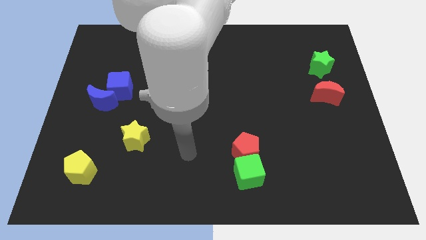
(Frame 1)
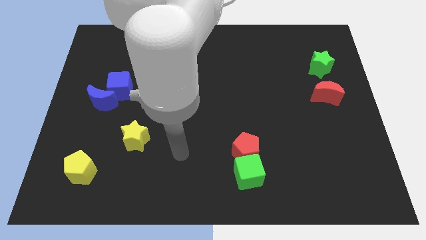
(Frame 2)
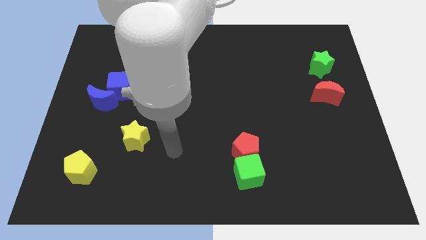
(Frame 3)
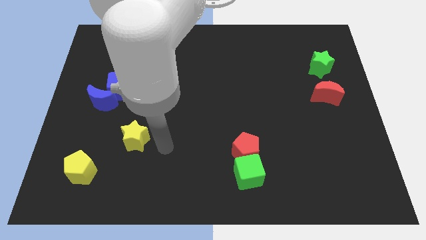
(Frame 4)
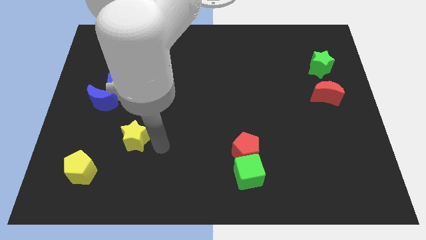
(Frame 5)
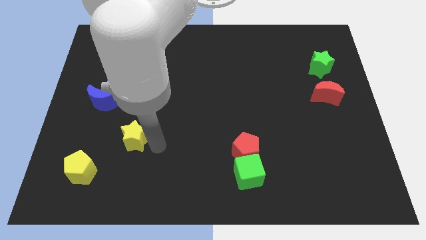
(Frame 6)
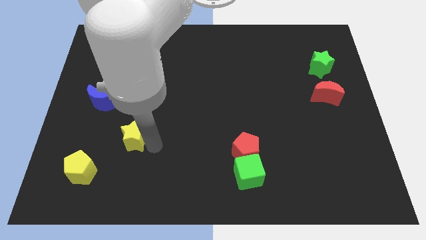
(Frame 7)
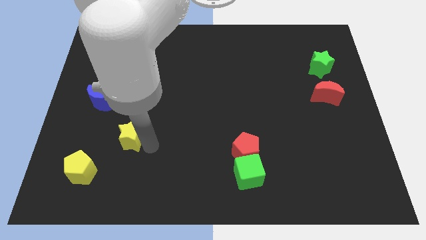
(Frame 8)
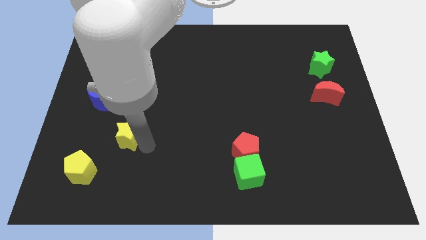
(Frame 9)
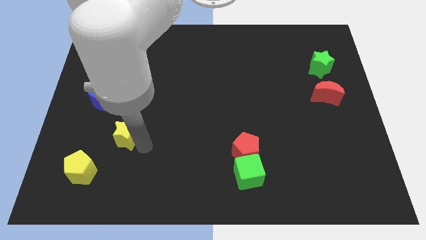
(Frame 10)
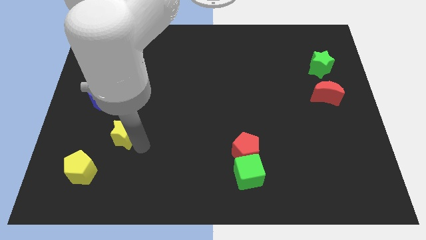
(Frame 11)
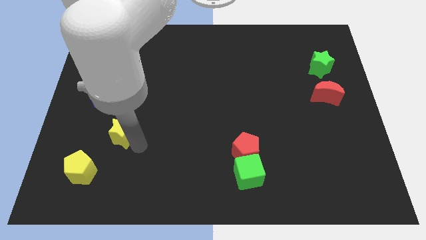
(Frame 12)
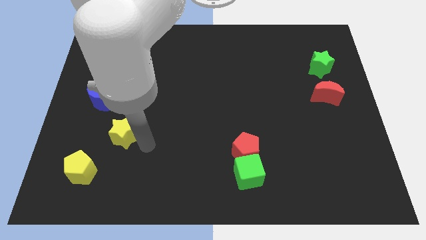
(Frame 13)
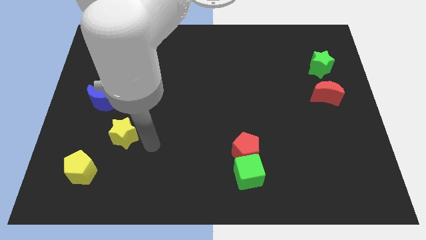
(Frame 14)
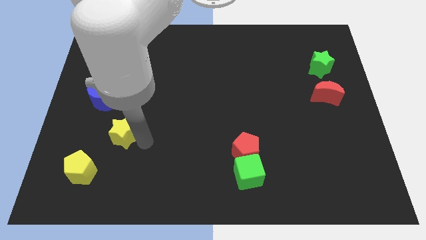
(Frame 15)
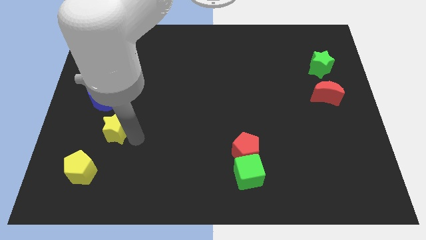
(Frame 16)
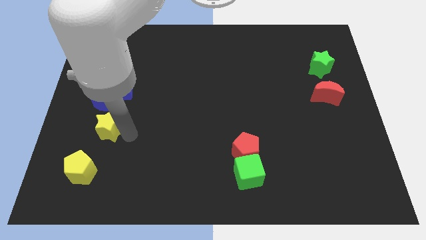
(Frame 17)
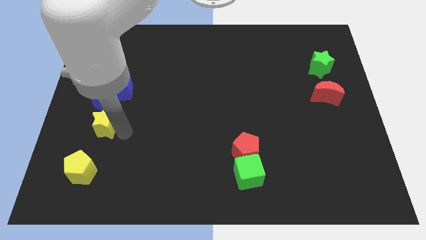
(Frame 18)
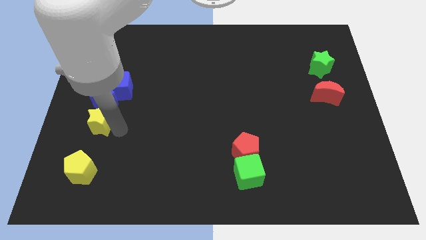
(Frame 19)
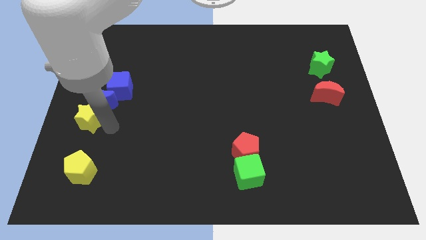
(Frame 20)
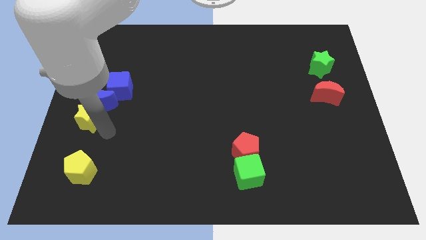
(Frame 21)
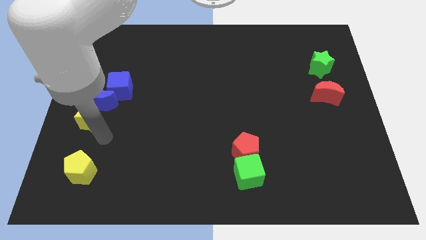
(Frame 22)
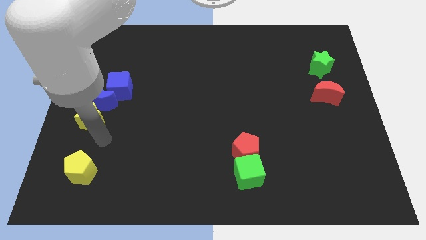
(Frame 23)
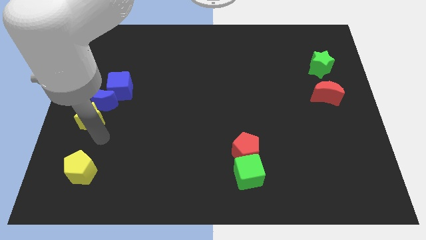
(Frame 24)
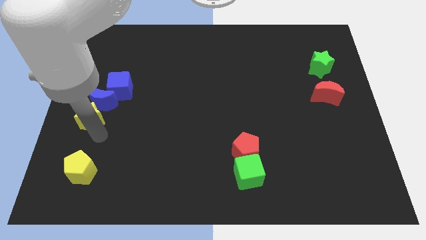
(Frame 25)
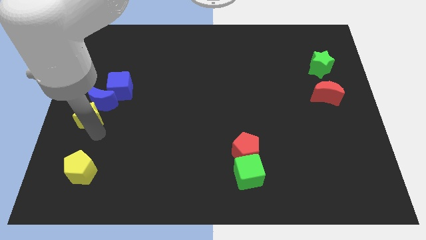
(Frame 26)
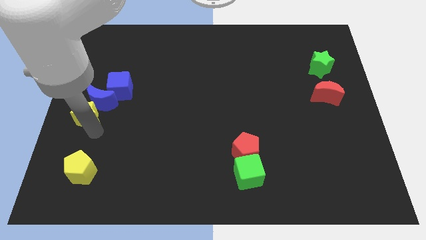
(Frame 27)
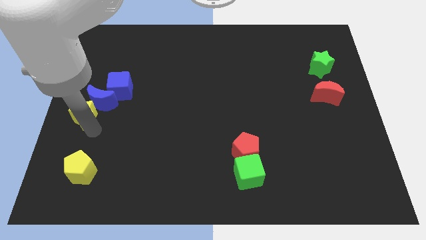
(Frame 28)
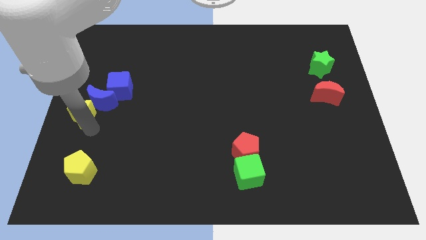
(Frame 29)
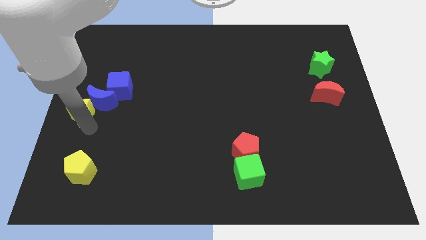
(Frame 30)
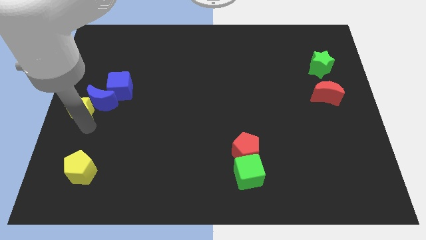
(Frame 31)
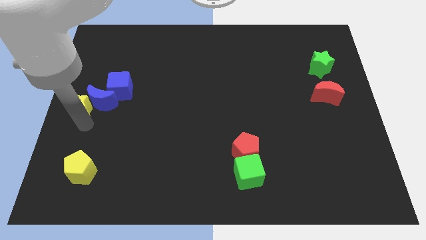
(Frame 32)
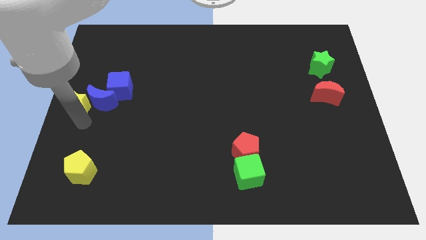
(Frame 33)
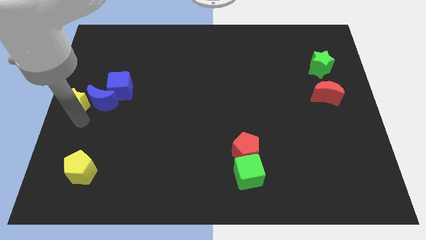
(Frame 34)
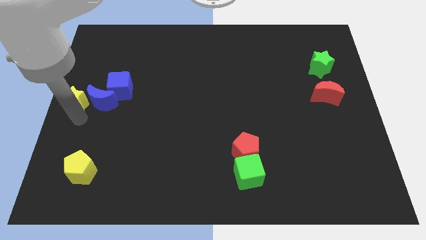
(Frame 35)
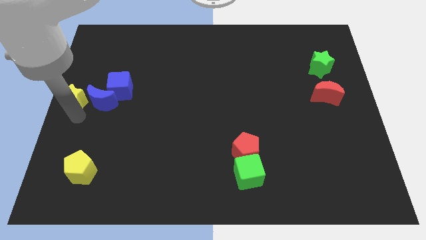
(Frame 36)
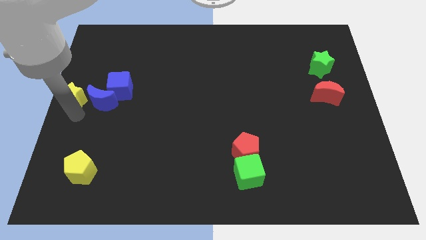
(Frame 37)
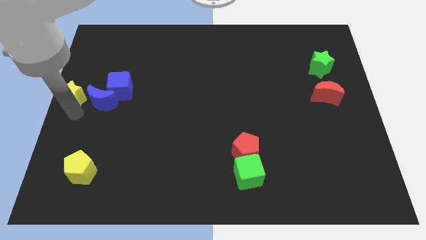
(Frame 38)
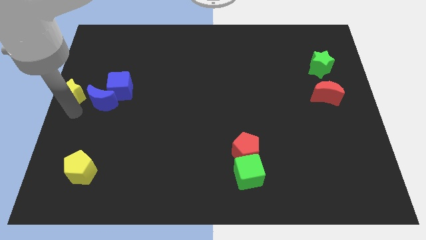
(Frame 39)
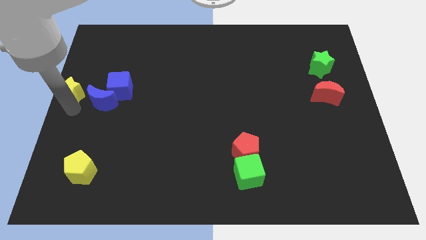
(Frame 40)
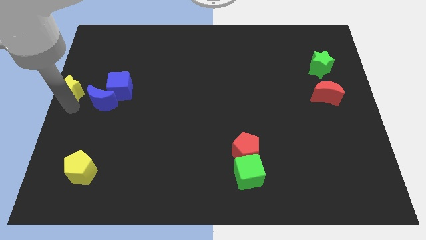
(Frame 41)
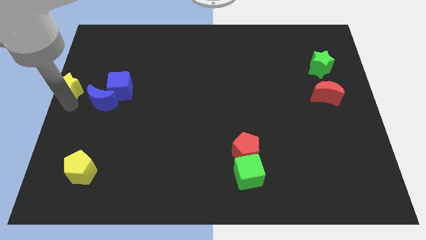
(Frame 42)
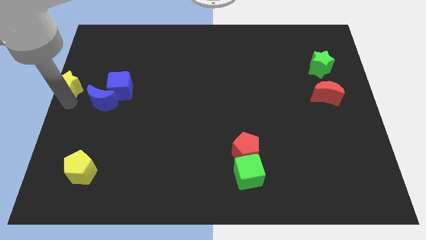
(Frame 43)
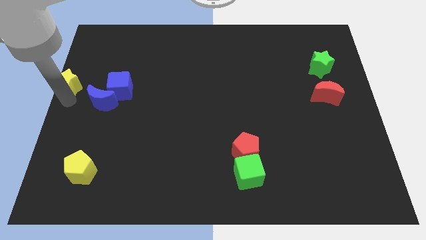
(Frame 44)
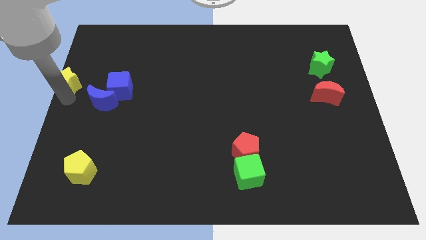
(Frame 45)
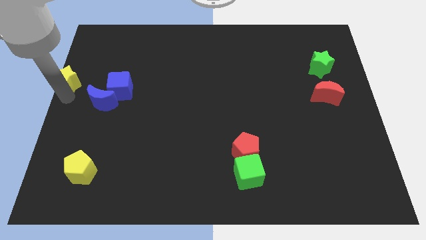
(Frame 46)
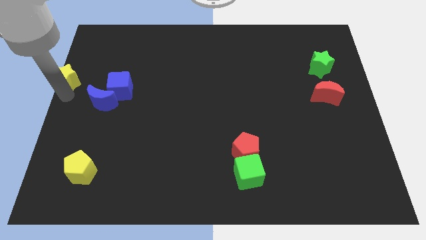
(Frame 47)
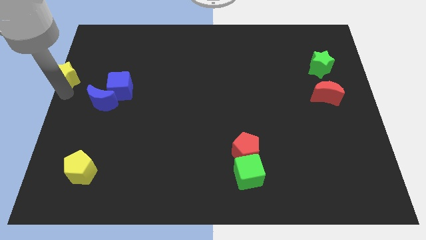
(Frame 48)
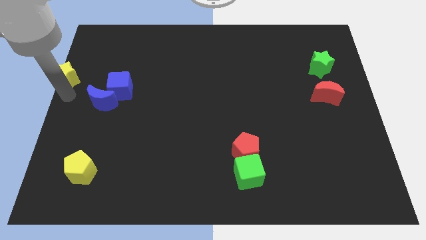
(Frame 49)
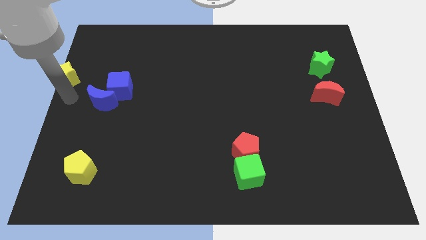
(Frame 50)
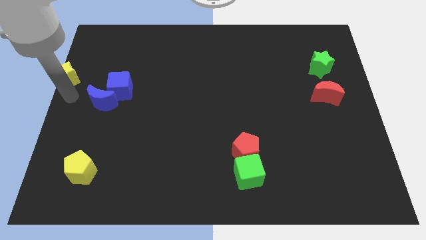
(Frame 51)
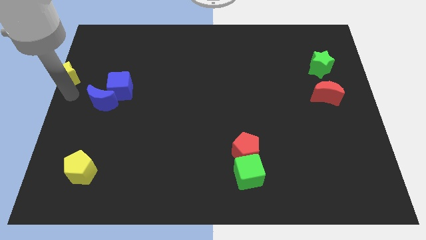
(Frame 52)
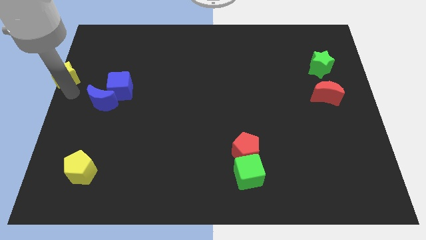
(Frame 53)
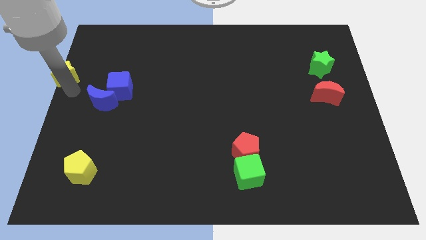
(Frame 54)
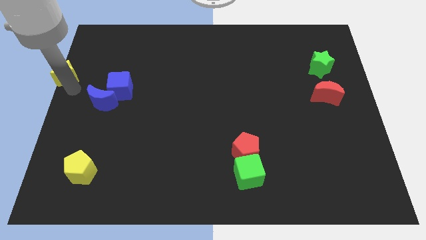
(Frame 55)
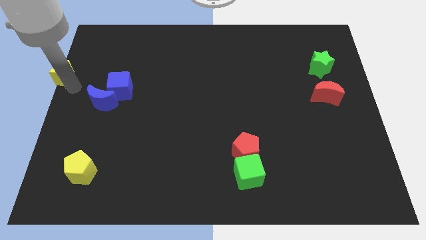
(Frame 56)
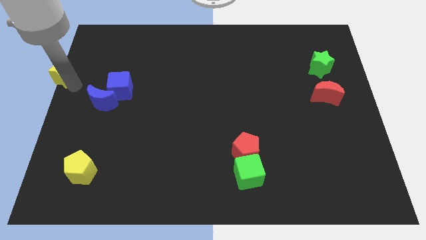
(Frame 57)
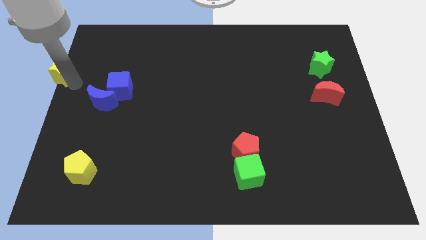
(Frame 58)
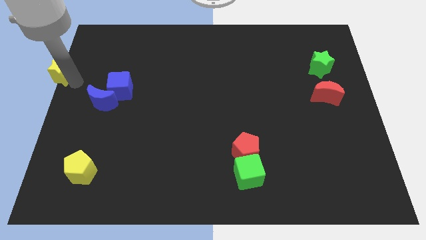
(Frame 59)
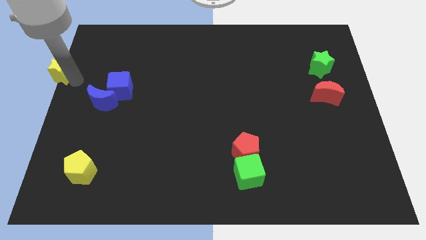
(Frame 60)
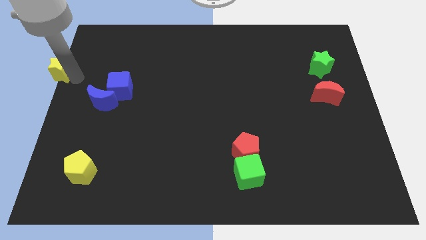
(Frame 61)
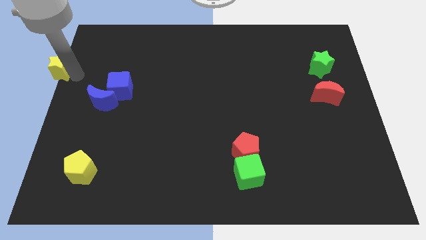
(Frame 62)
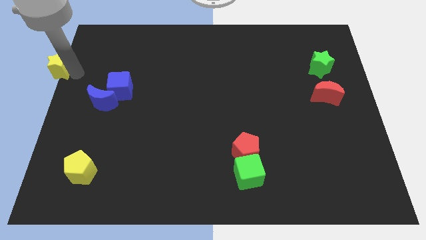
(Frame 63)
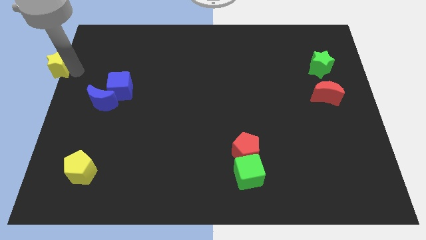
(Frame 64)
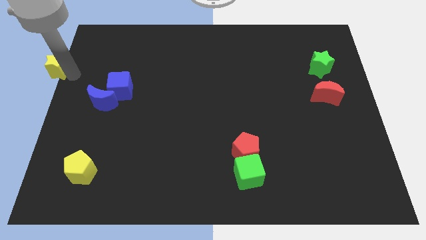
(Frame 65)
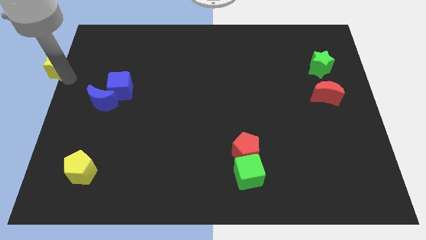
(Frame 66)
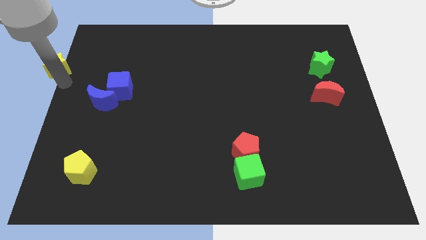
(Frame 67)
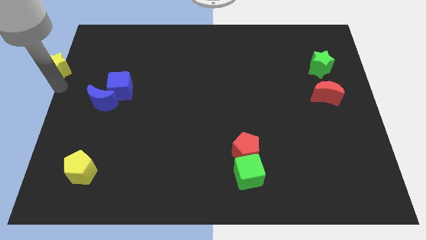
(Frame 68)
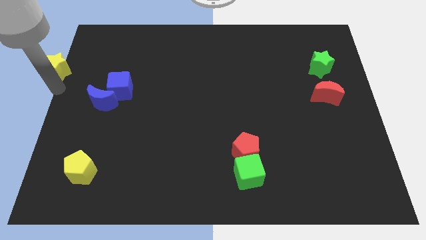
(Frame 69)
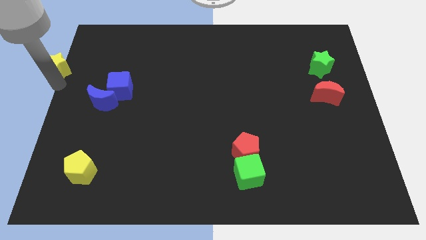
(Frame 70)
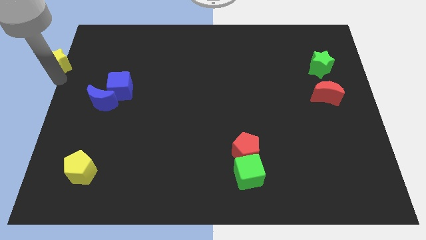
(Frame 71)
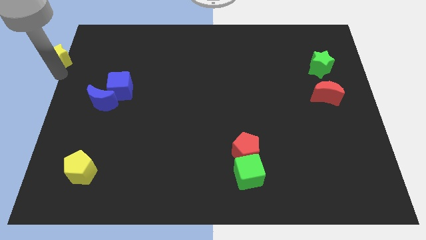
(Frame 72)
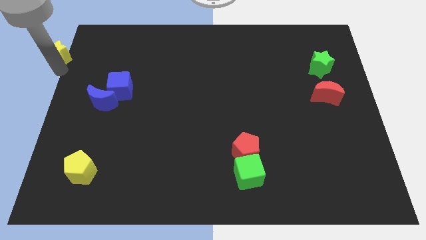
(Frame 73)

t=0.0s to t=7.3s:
push the yellow star to the upper left corner
